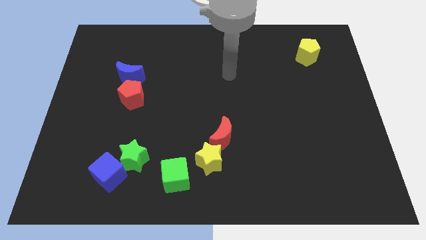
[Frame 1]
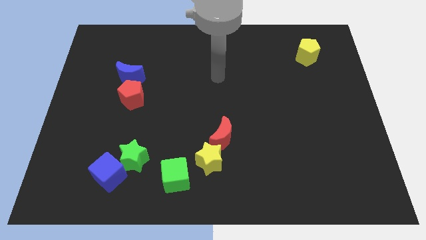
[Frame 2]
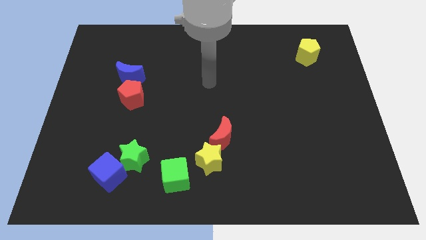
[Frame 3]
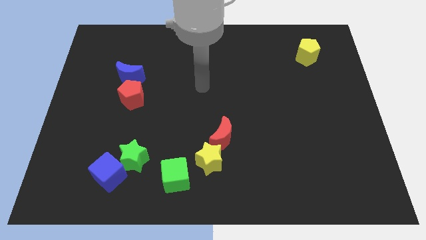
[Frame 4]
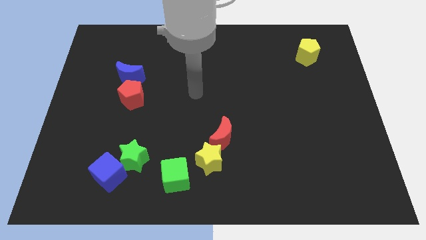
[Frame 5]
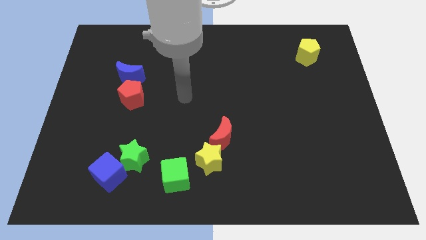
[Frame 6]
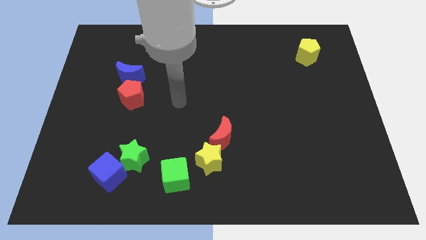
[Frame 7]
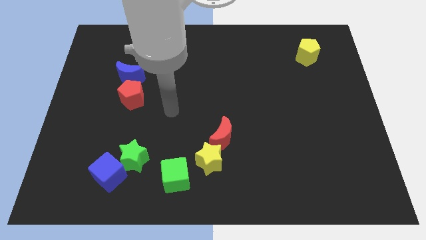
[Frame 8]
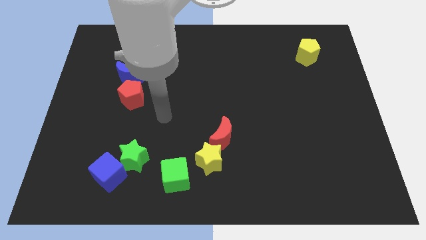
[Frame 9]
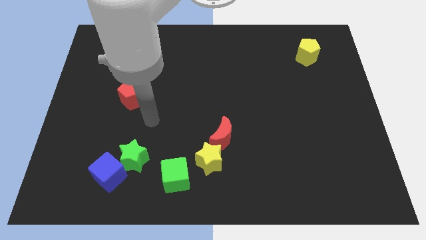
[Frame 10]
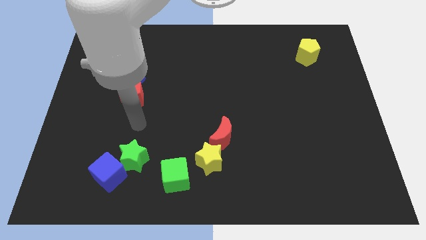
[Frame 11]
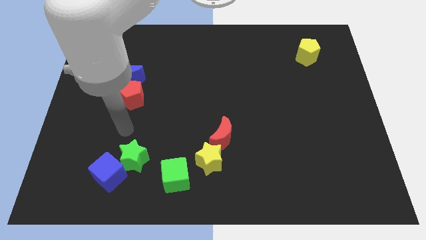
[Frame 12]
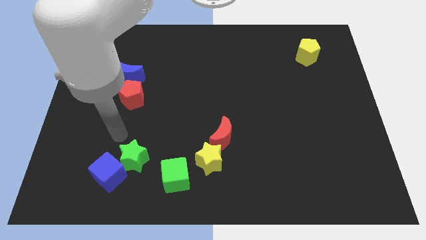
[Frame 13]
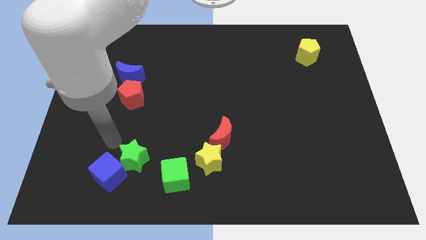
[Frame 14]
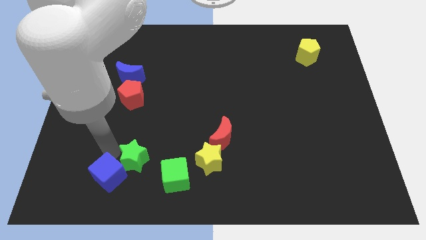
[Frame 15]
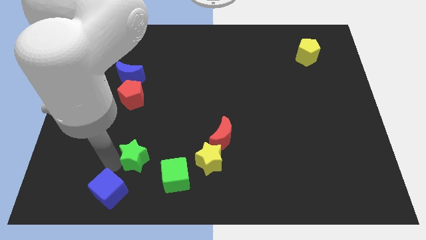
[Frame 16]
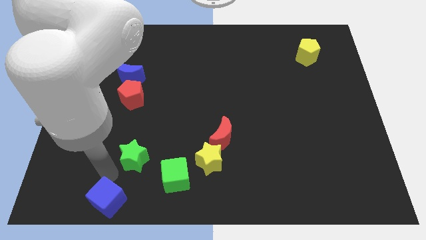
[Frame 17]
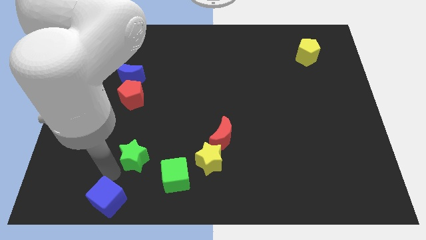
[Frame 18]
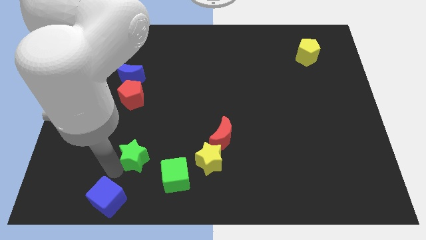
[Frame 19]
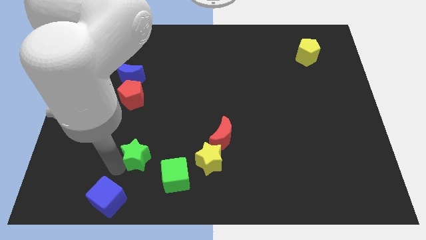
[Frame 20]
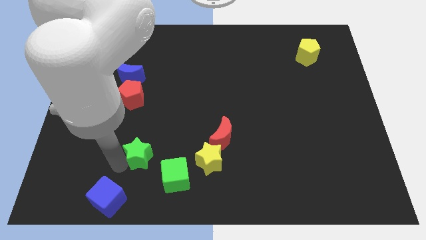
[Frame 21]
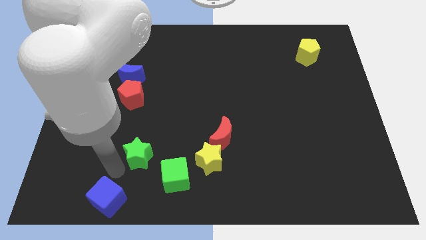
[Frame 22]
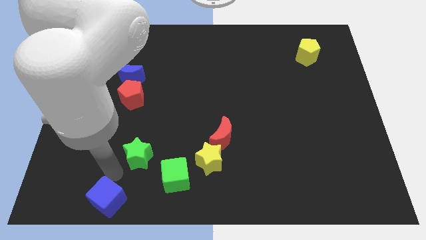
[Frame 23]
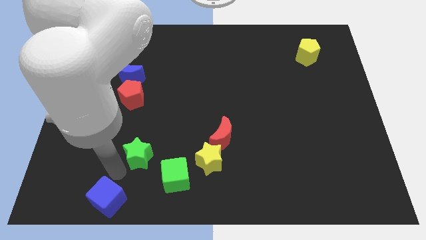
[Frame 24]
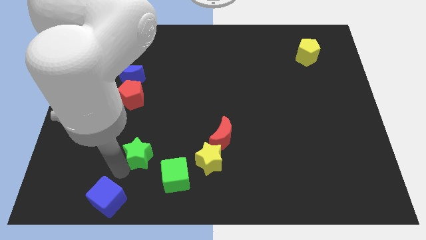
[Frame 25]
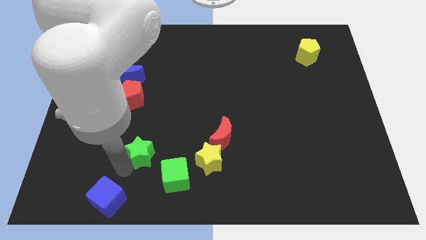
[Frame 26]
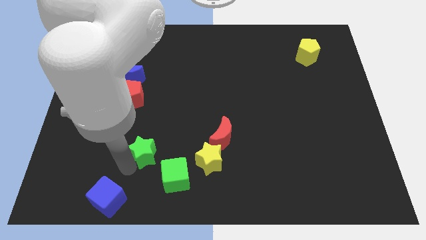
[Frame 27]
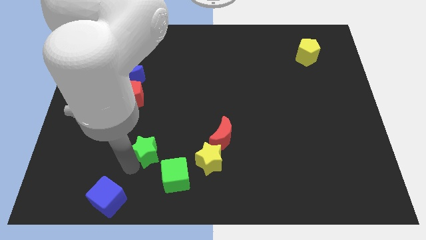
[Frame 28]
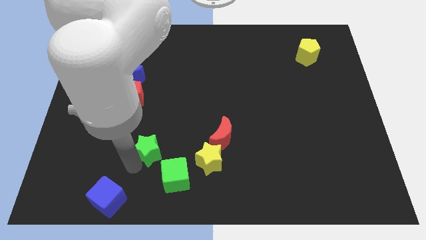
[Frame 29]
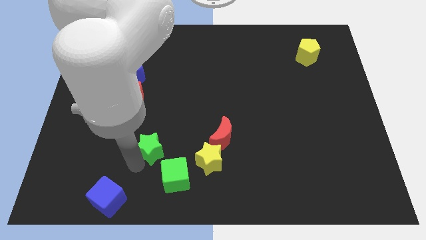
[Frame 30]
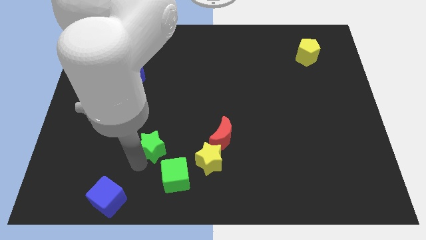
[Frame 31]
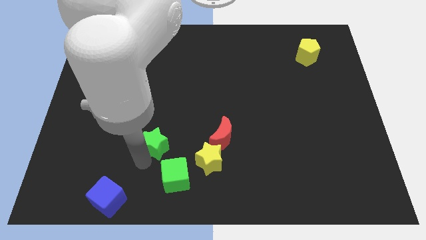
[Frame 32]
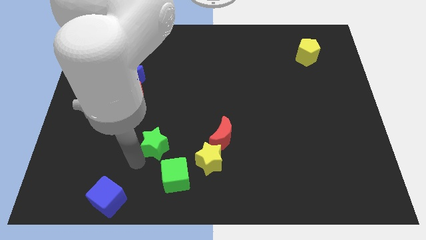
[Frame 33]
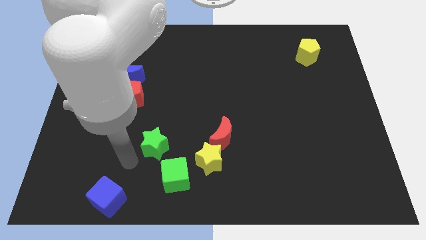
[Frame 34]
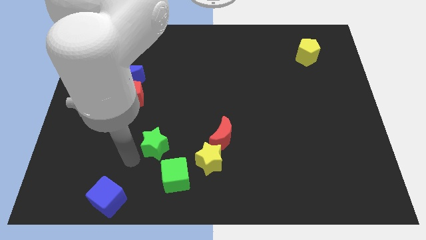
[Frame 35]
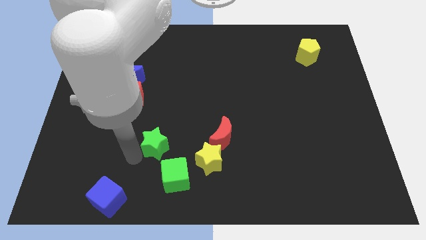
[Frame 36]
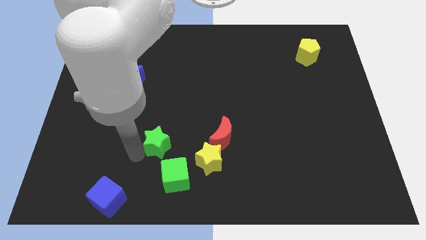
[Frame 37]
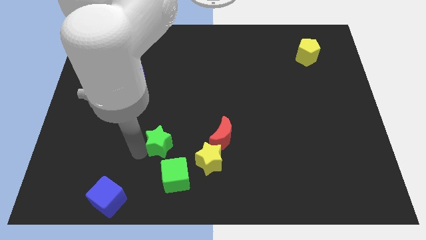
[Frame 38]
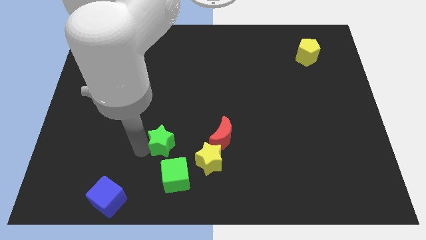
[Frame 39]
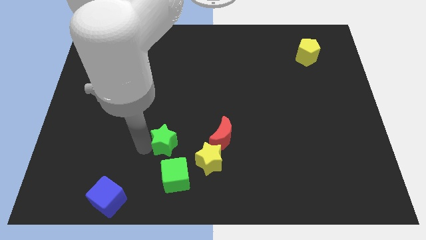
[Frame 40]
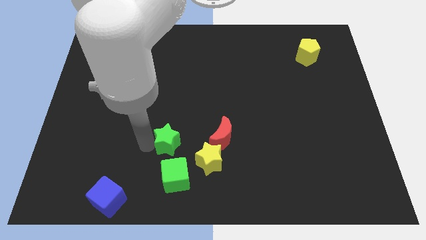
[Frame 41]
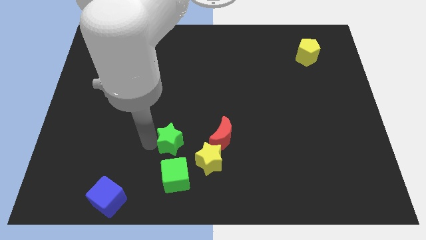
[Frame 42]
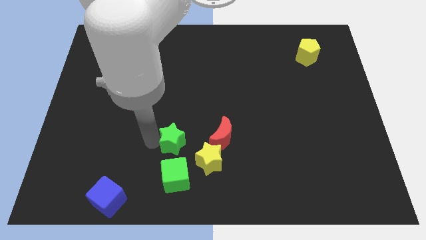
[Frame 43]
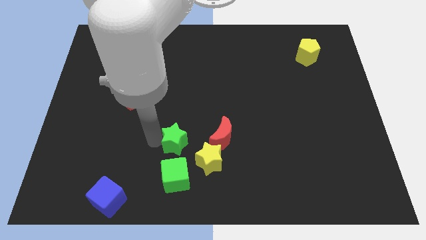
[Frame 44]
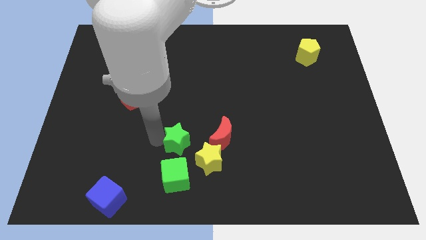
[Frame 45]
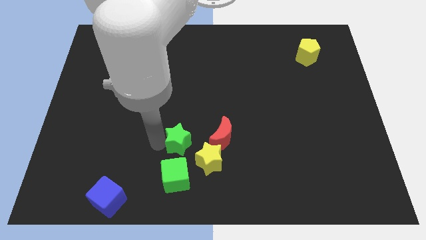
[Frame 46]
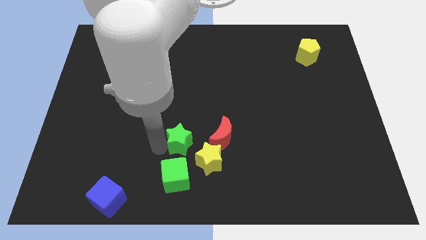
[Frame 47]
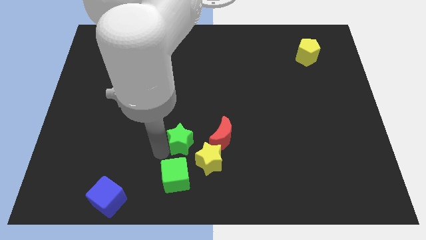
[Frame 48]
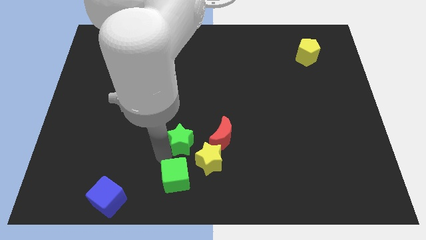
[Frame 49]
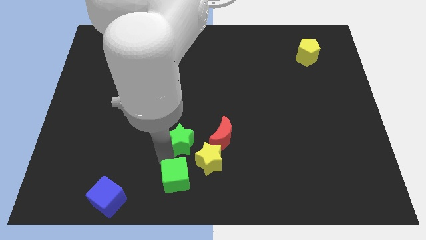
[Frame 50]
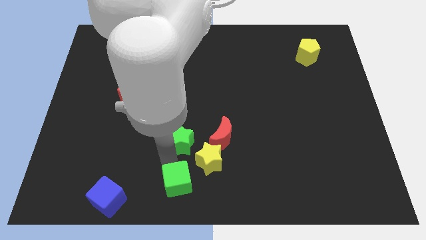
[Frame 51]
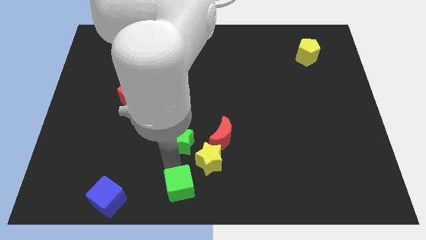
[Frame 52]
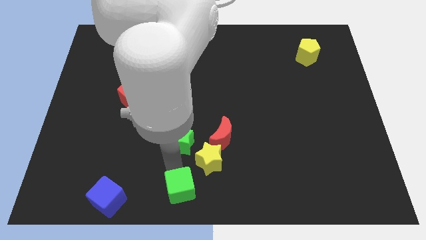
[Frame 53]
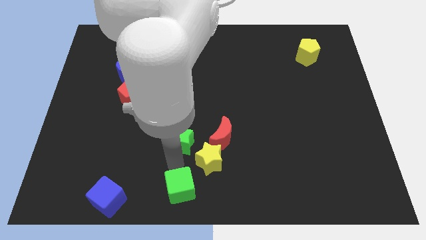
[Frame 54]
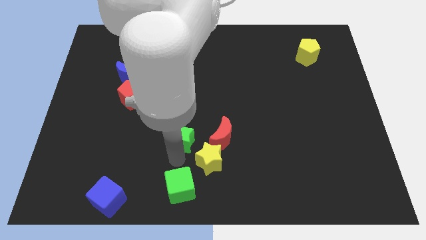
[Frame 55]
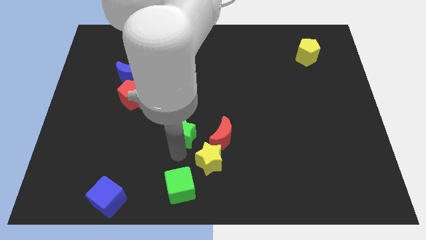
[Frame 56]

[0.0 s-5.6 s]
put the green star to the center

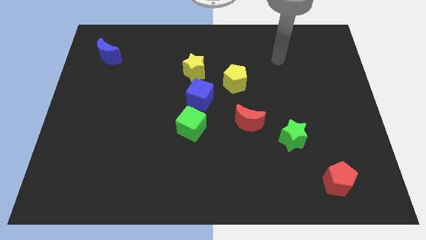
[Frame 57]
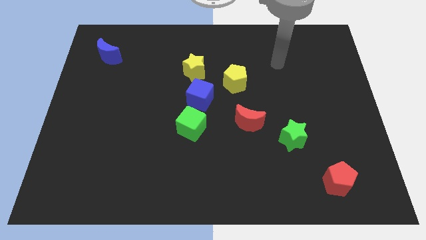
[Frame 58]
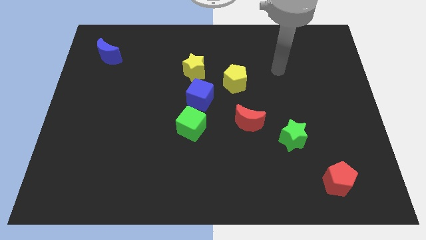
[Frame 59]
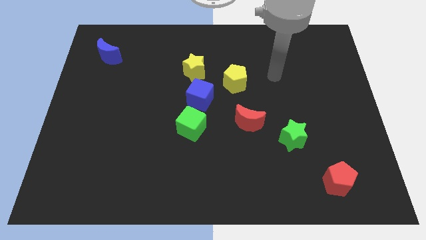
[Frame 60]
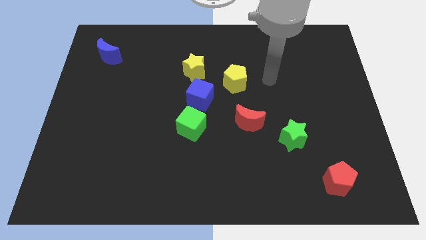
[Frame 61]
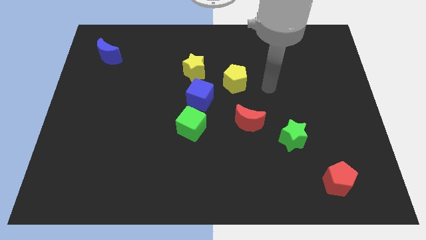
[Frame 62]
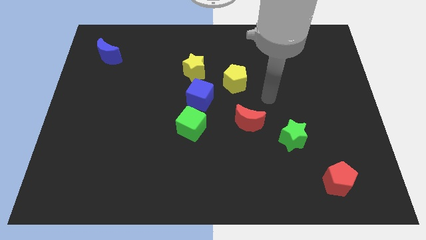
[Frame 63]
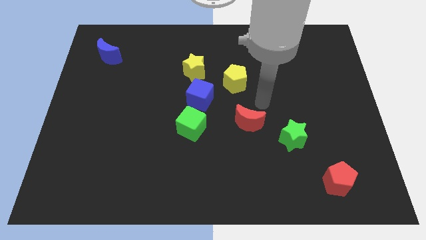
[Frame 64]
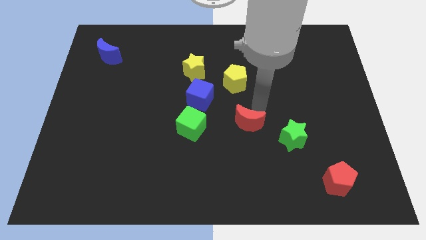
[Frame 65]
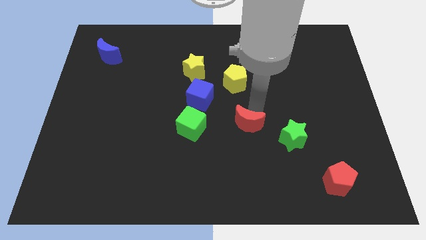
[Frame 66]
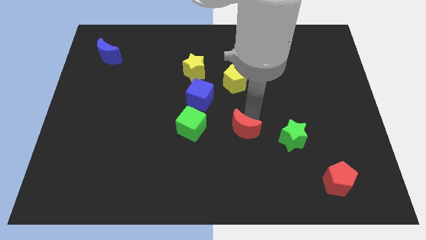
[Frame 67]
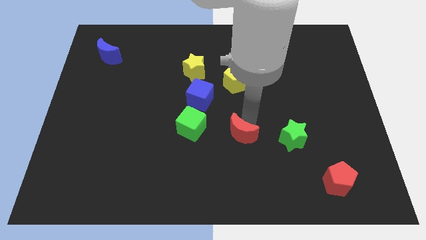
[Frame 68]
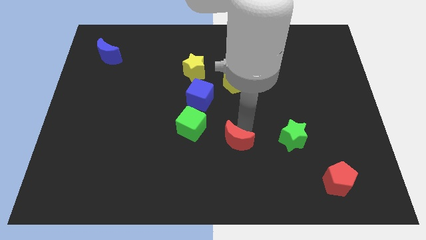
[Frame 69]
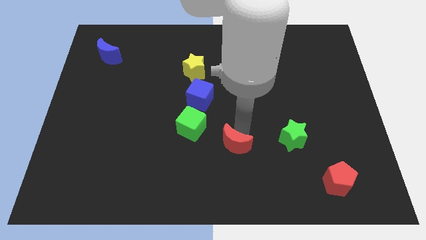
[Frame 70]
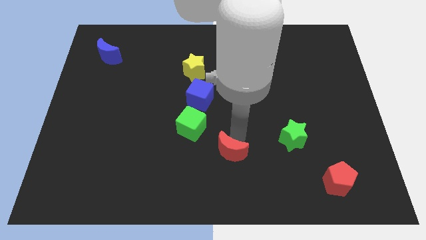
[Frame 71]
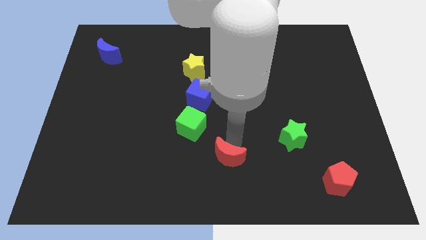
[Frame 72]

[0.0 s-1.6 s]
slide the red moon to the bottom
